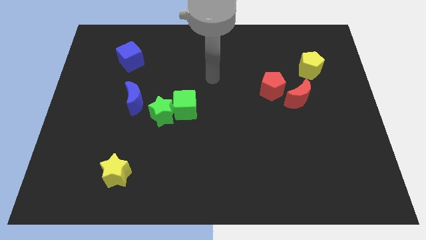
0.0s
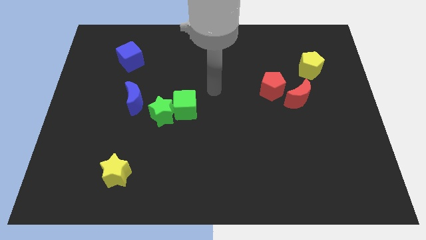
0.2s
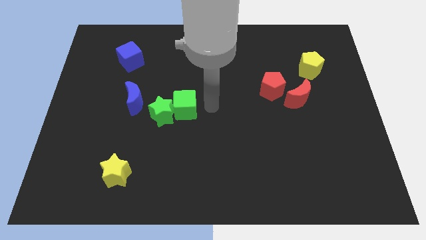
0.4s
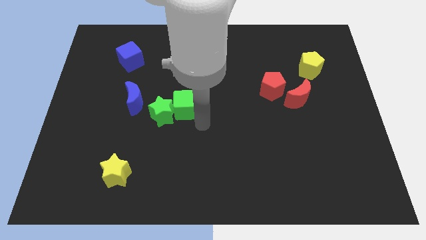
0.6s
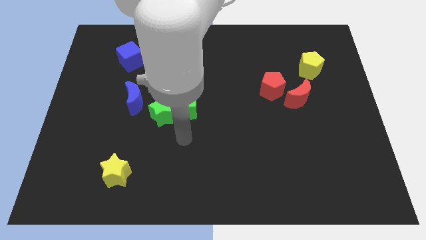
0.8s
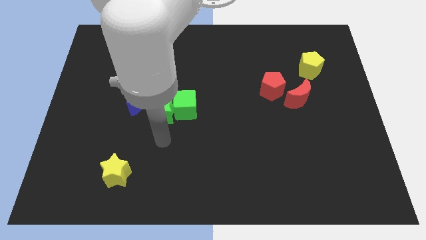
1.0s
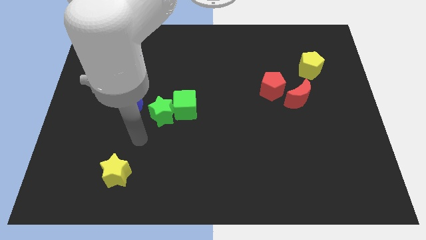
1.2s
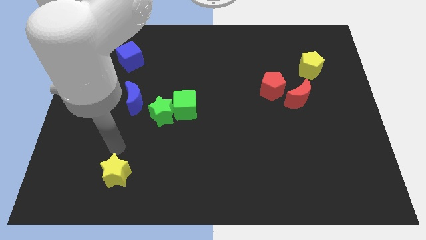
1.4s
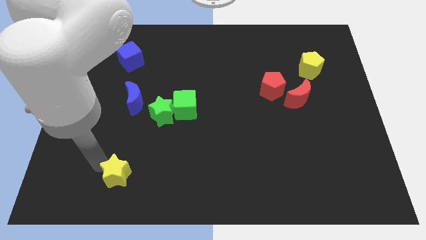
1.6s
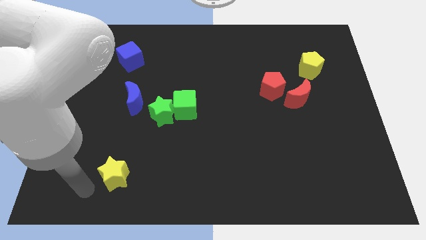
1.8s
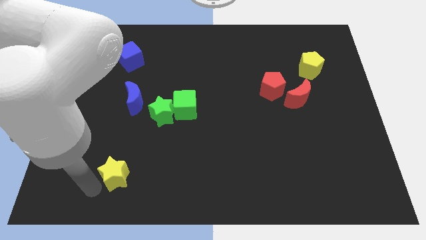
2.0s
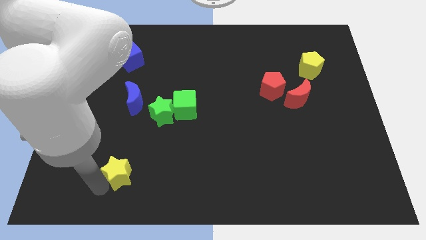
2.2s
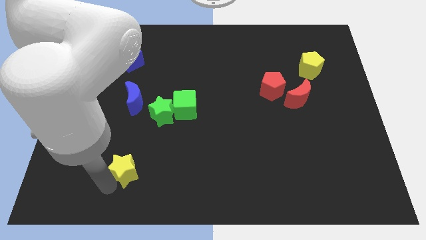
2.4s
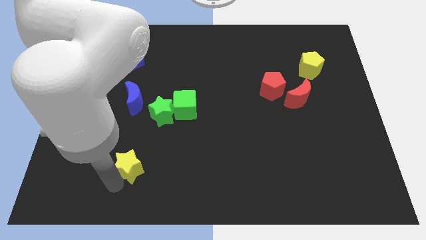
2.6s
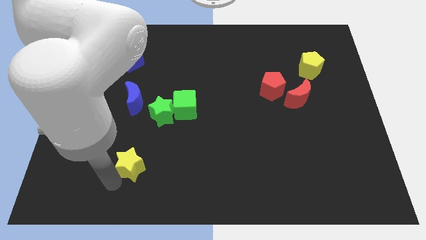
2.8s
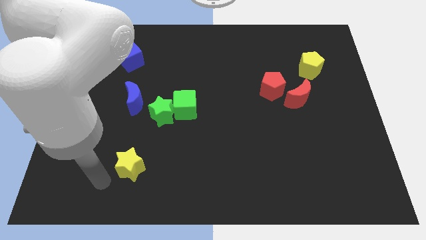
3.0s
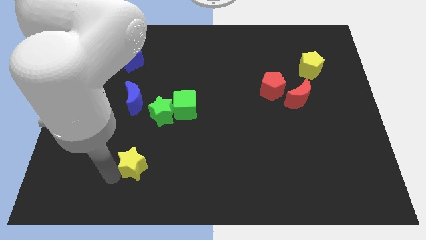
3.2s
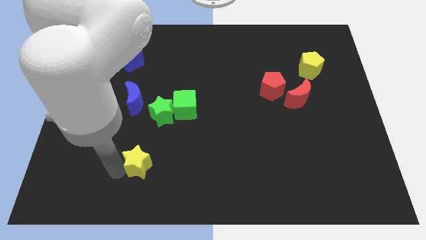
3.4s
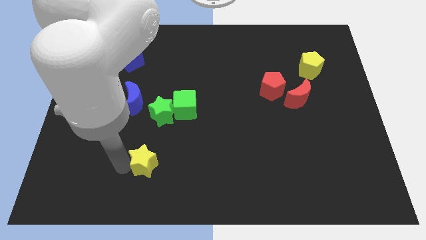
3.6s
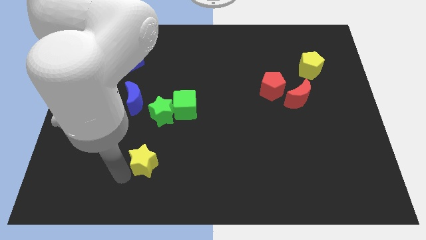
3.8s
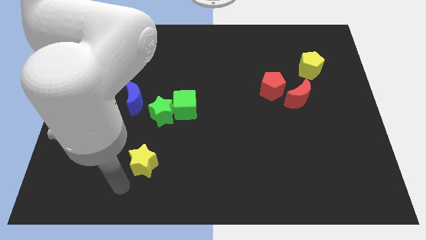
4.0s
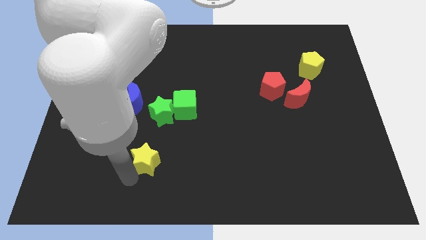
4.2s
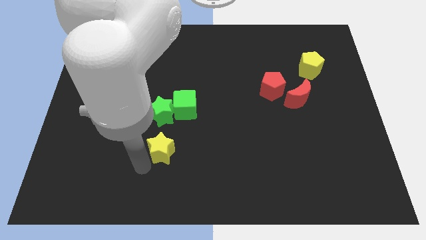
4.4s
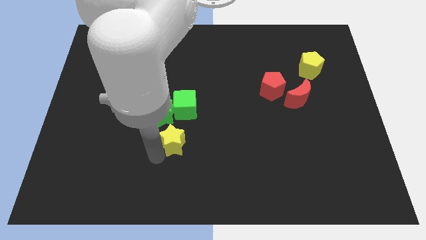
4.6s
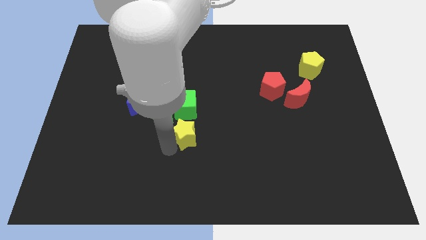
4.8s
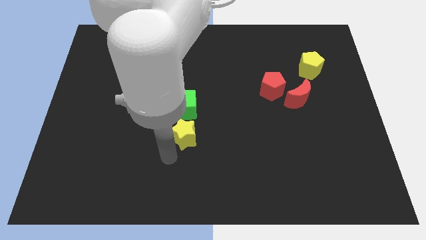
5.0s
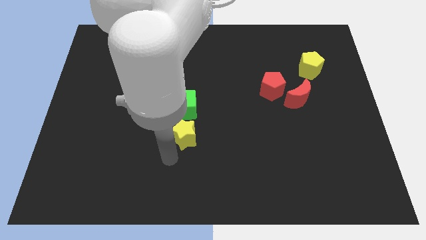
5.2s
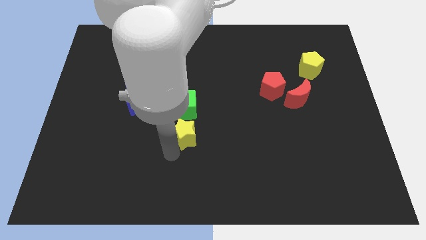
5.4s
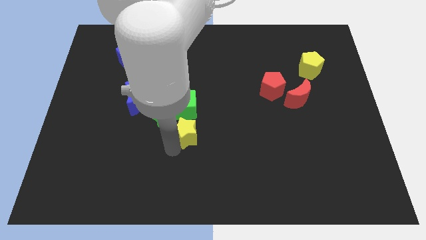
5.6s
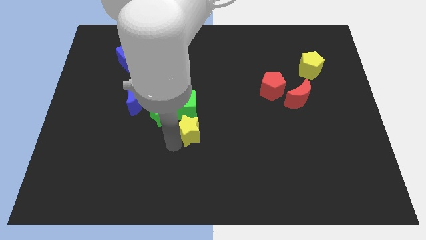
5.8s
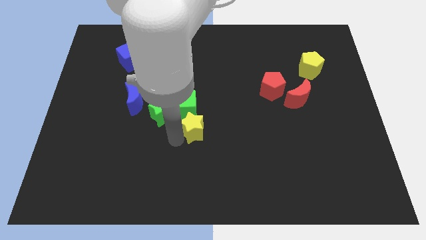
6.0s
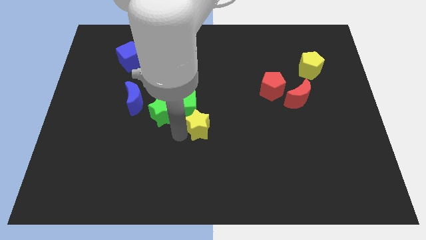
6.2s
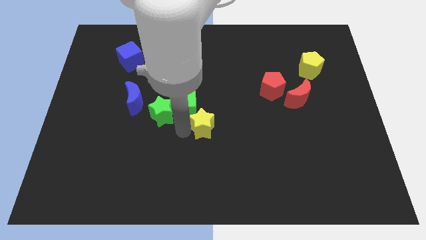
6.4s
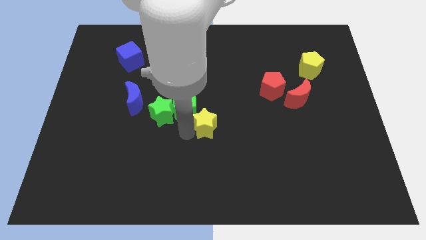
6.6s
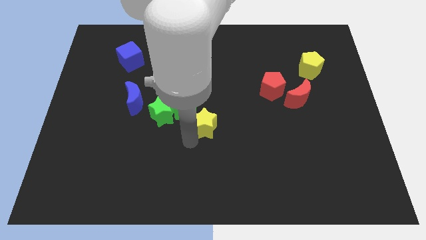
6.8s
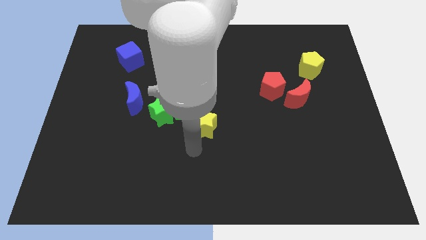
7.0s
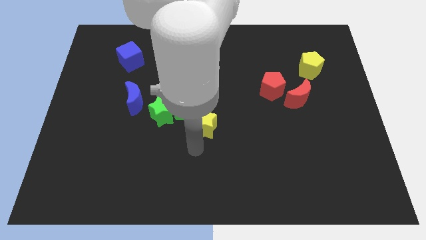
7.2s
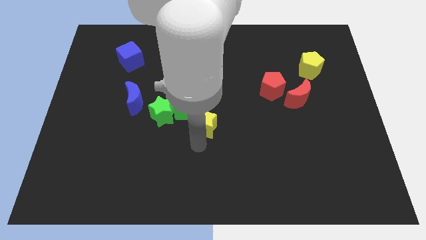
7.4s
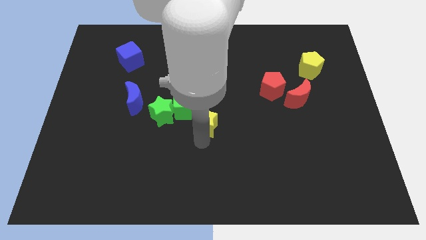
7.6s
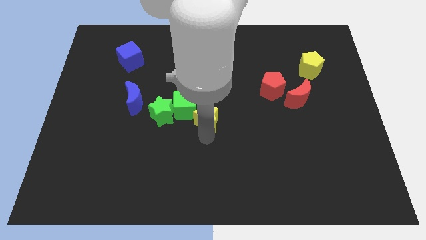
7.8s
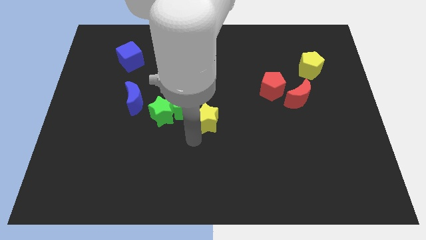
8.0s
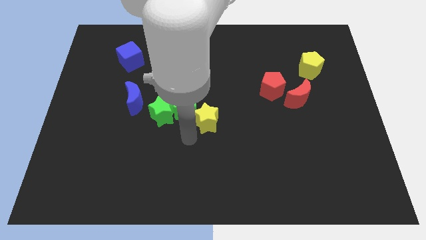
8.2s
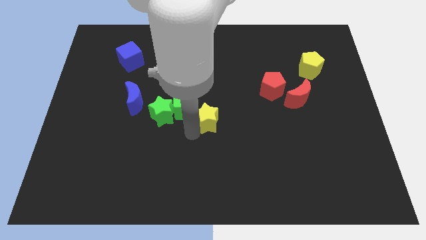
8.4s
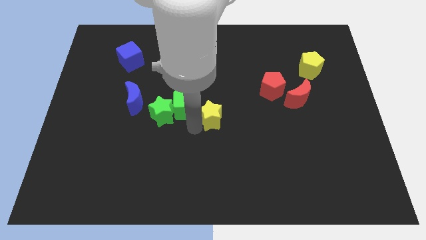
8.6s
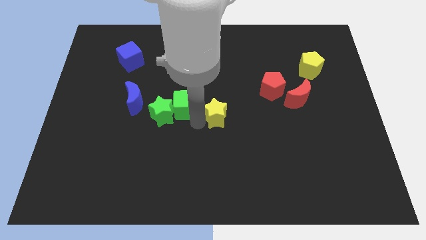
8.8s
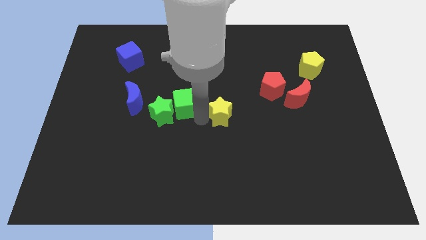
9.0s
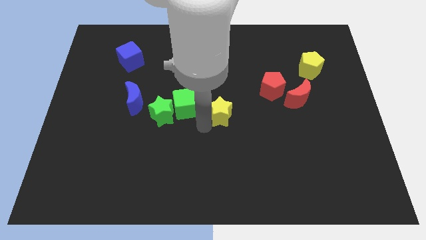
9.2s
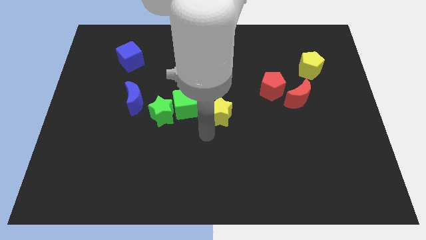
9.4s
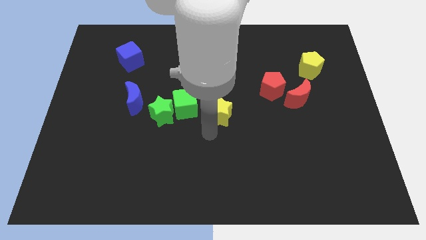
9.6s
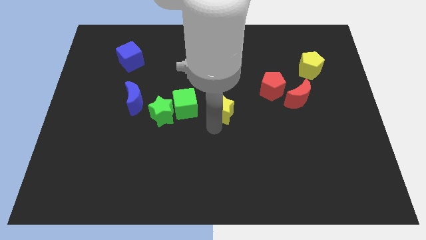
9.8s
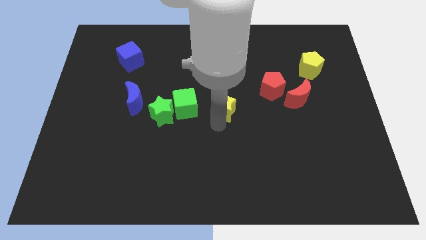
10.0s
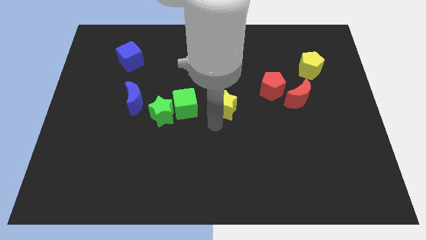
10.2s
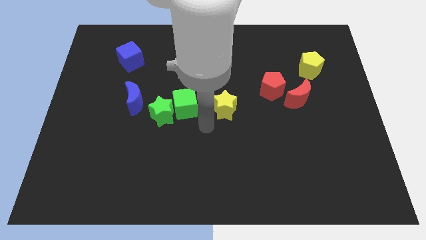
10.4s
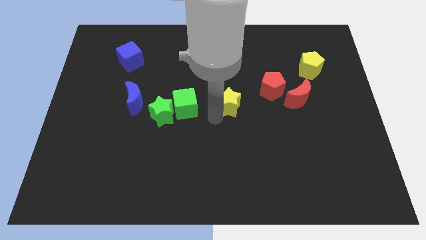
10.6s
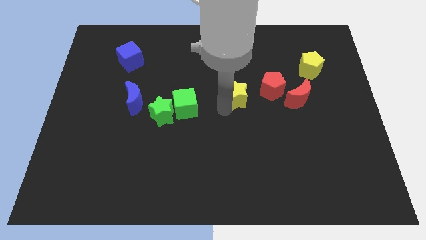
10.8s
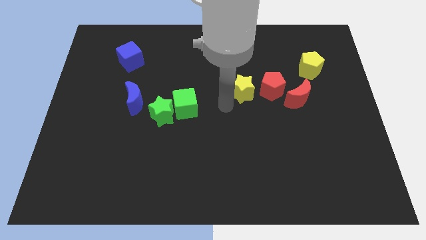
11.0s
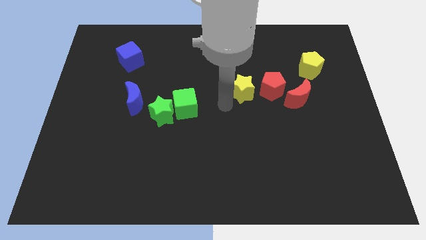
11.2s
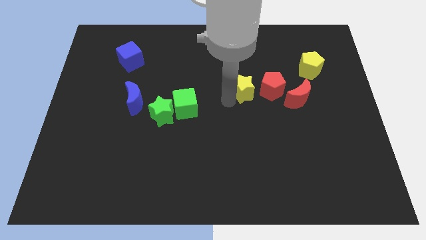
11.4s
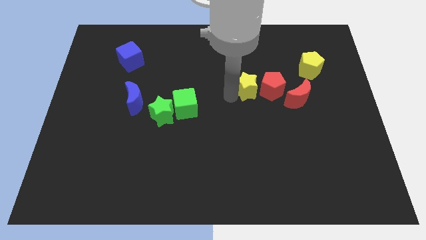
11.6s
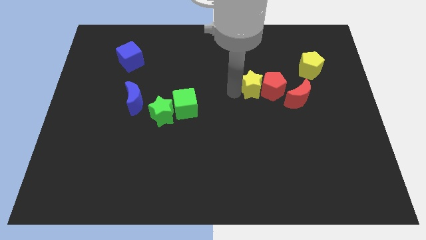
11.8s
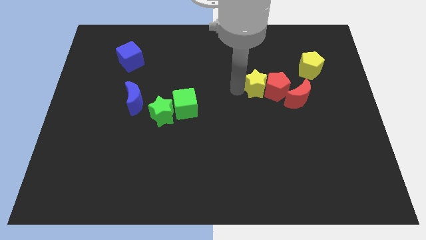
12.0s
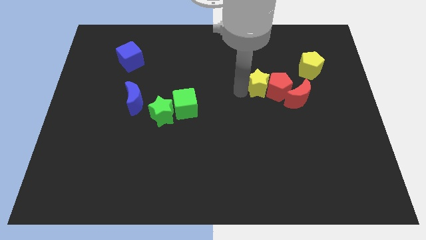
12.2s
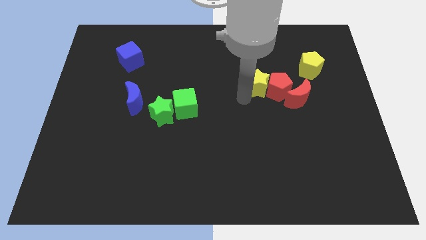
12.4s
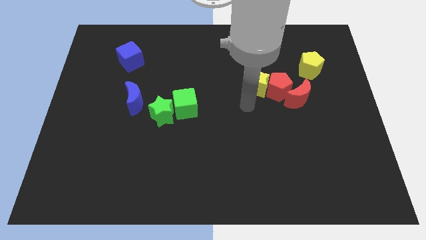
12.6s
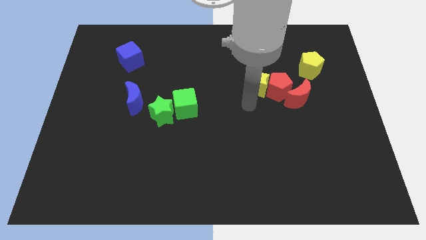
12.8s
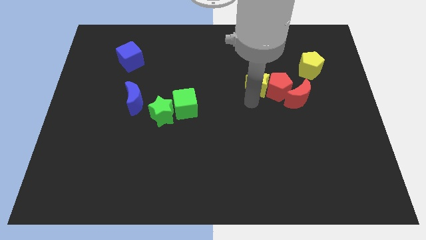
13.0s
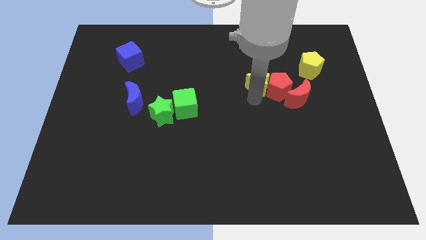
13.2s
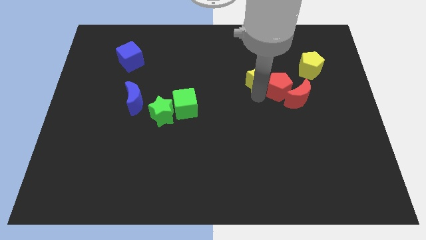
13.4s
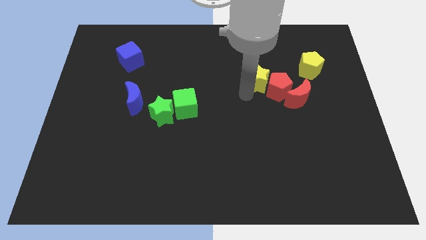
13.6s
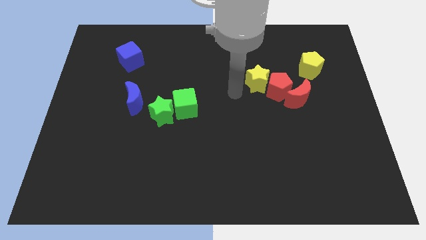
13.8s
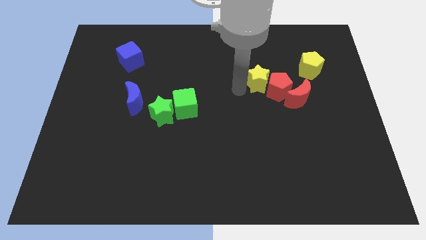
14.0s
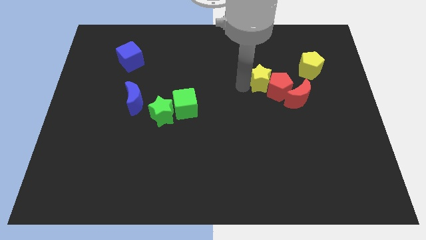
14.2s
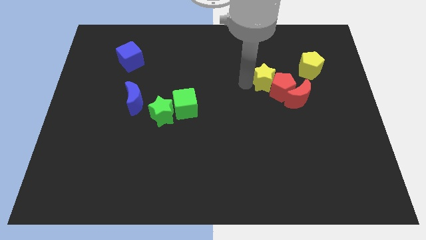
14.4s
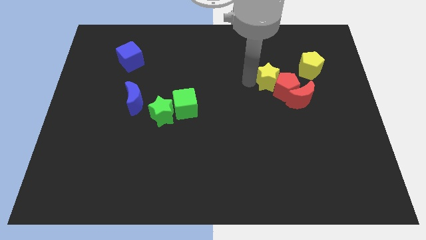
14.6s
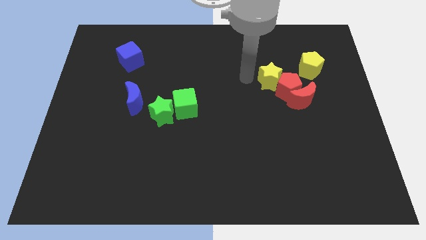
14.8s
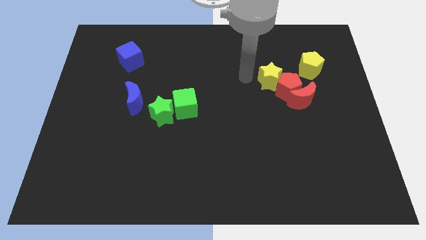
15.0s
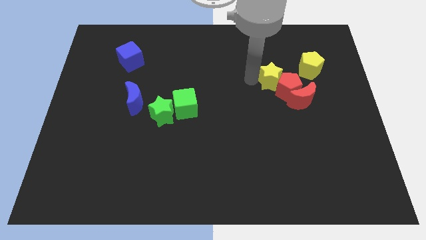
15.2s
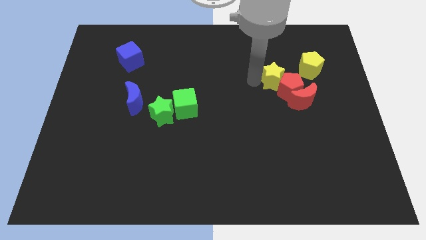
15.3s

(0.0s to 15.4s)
put the yellow star diagonally down and to the left of the yellow pentagon

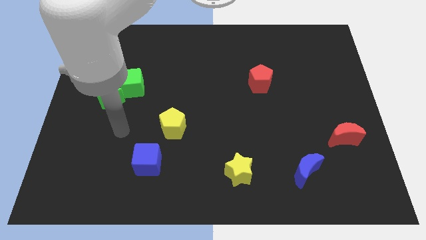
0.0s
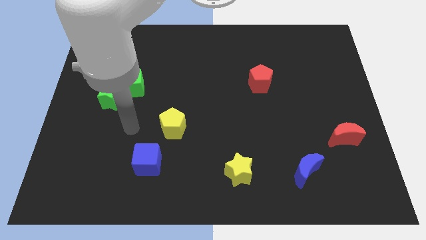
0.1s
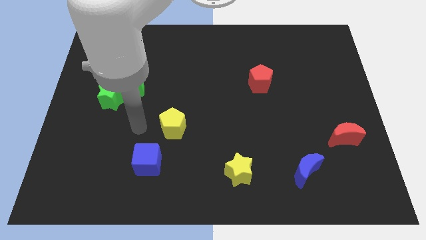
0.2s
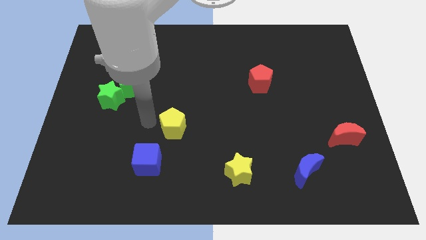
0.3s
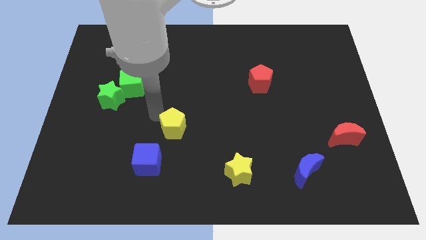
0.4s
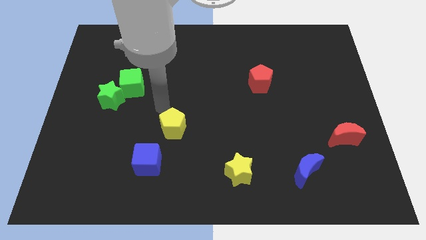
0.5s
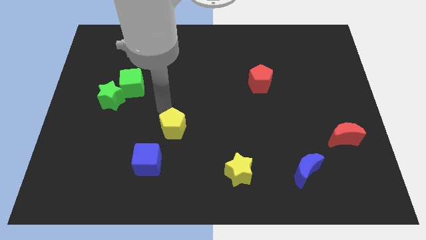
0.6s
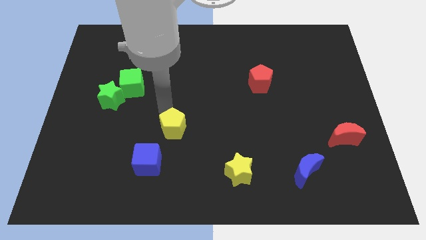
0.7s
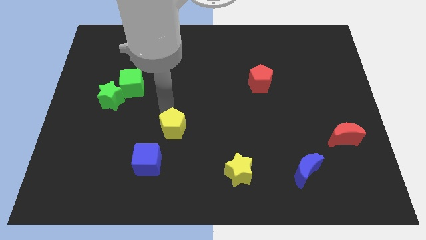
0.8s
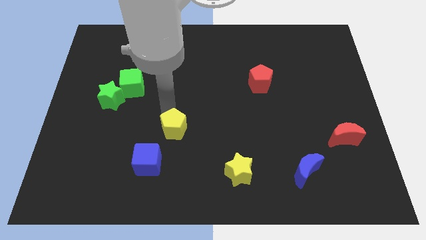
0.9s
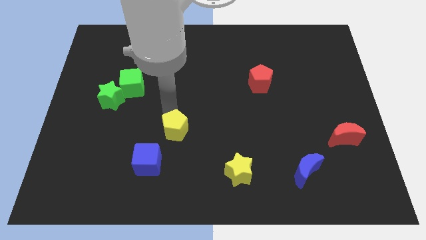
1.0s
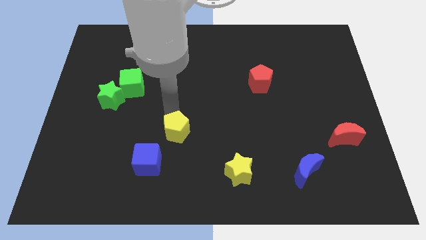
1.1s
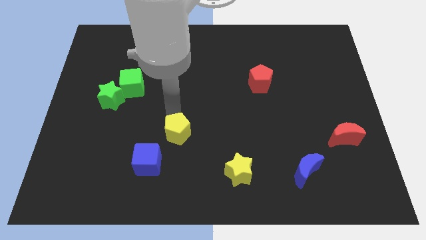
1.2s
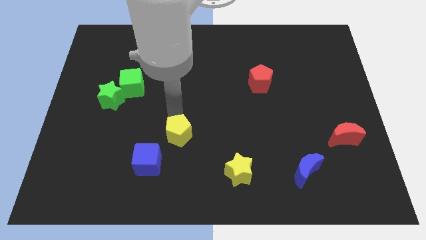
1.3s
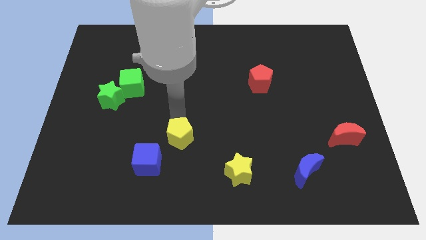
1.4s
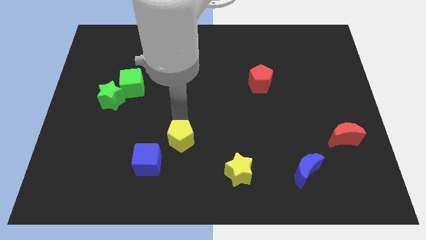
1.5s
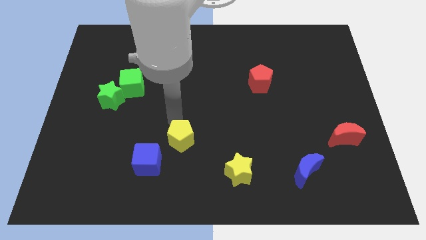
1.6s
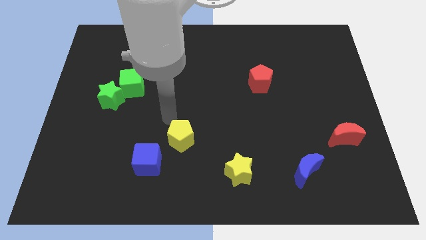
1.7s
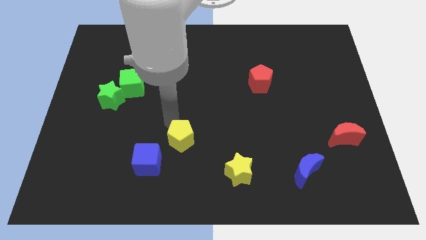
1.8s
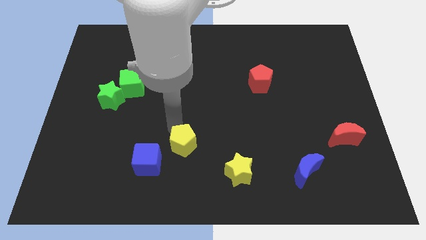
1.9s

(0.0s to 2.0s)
slide the yellow pentagon to the right of the blue cube
